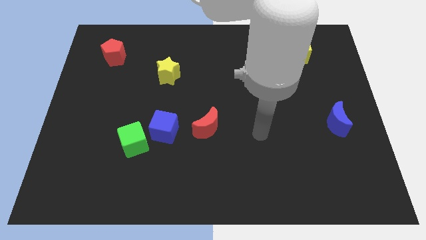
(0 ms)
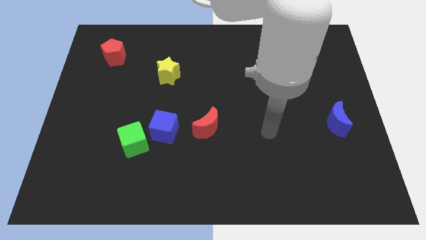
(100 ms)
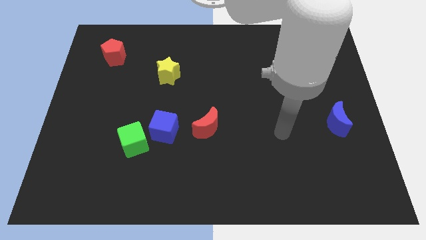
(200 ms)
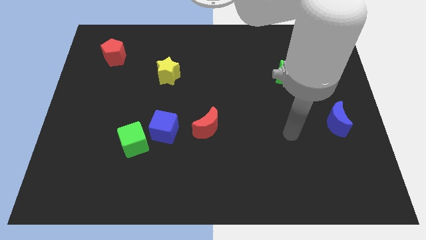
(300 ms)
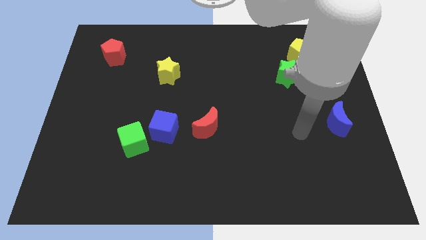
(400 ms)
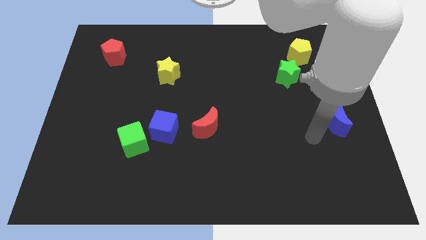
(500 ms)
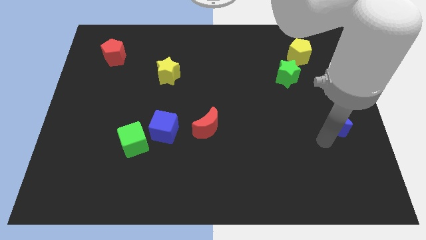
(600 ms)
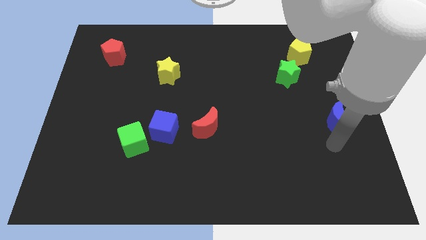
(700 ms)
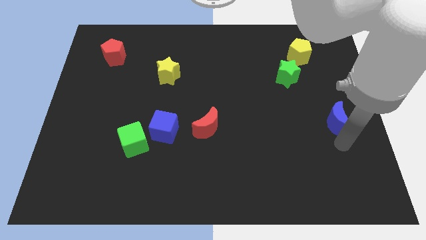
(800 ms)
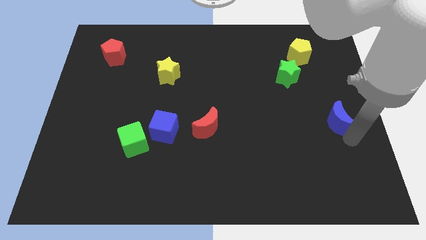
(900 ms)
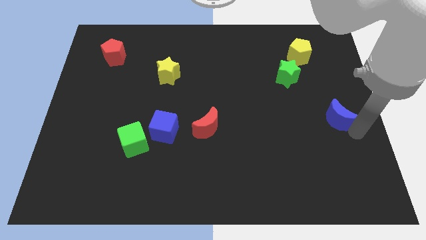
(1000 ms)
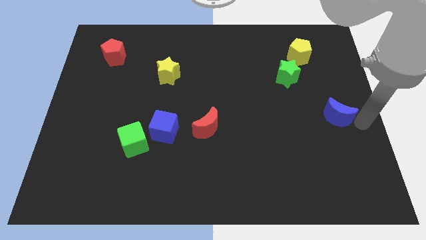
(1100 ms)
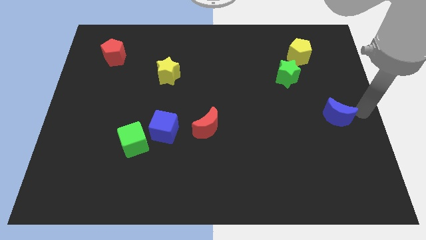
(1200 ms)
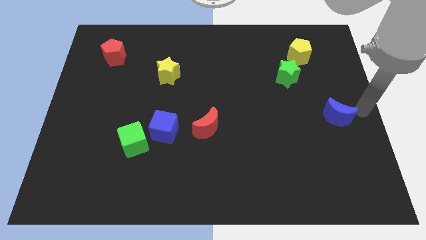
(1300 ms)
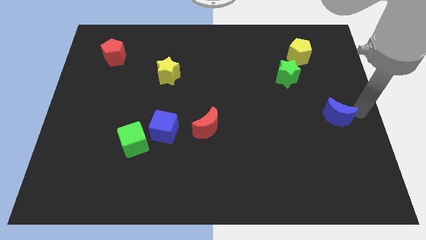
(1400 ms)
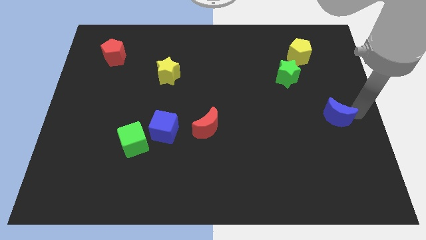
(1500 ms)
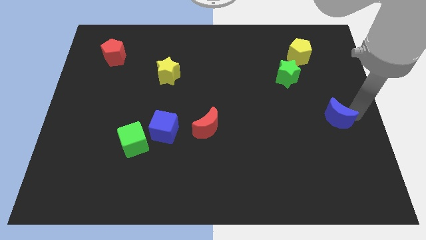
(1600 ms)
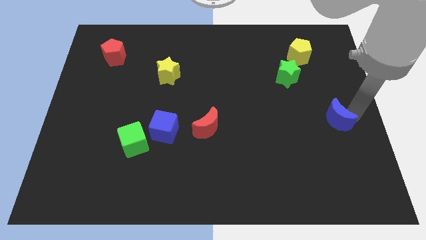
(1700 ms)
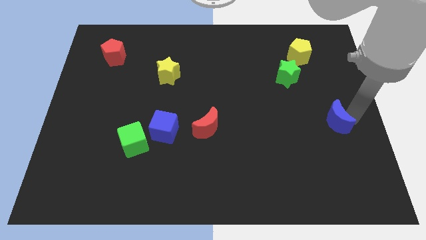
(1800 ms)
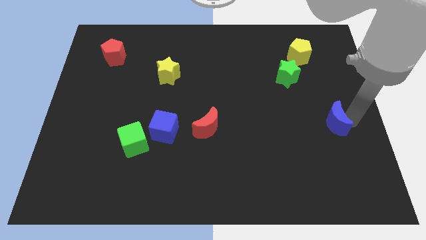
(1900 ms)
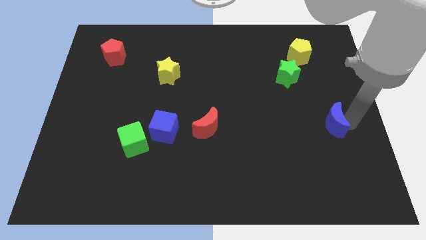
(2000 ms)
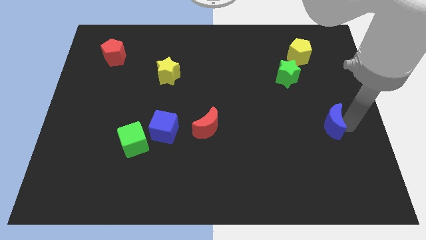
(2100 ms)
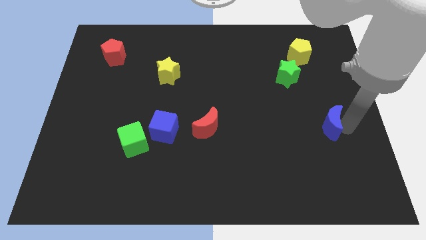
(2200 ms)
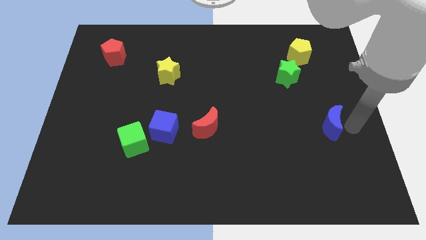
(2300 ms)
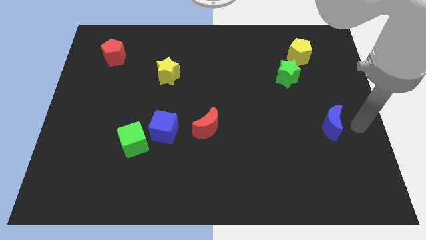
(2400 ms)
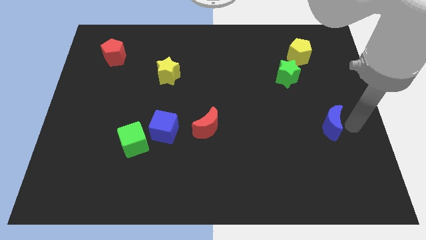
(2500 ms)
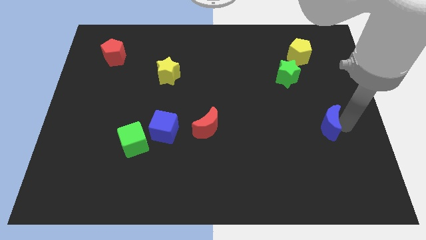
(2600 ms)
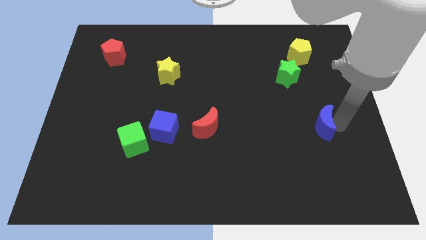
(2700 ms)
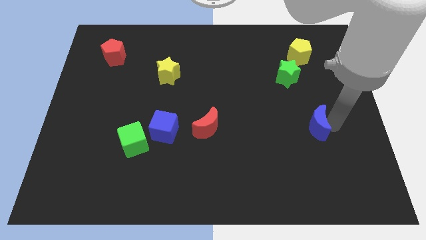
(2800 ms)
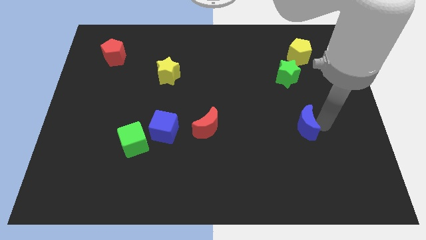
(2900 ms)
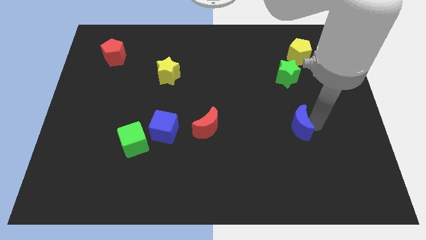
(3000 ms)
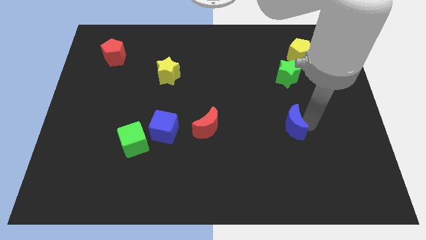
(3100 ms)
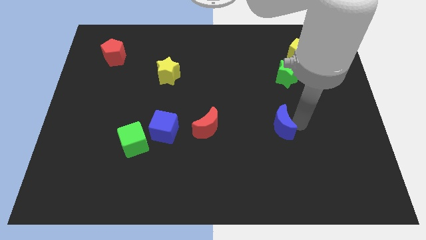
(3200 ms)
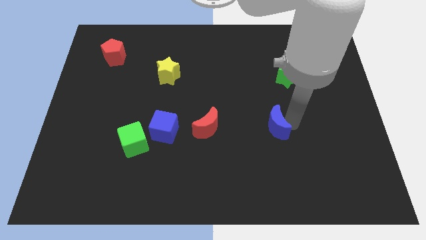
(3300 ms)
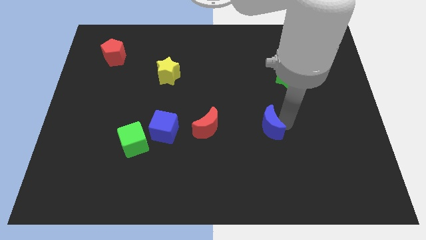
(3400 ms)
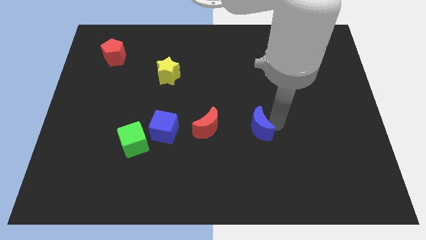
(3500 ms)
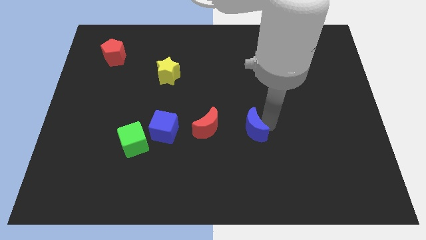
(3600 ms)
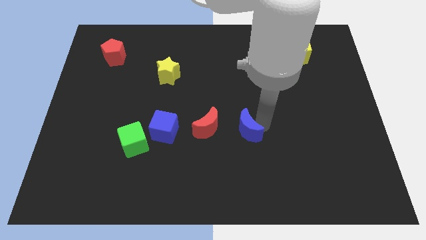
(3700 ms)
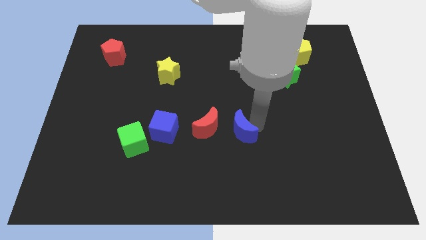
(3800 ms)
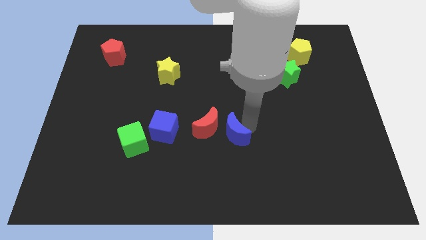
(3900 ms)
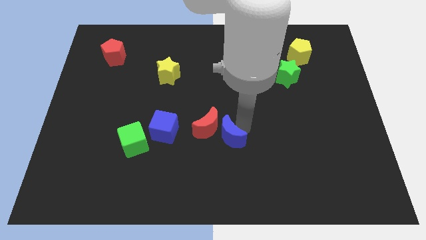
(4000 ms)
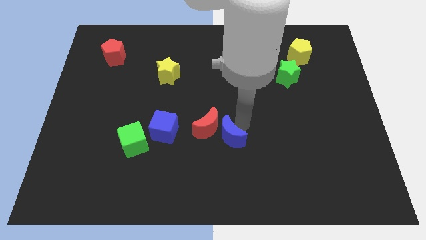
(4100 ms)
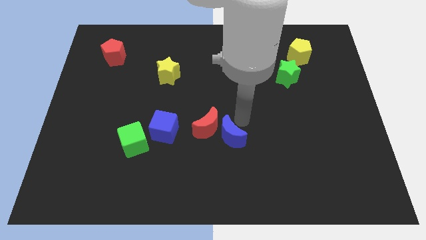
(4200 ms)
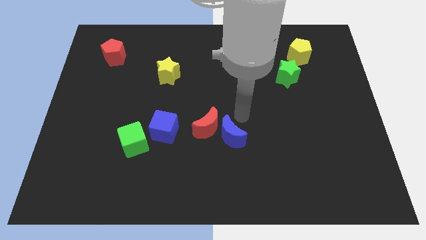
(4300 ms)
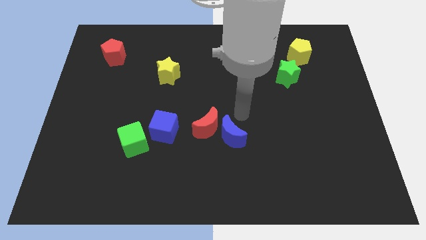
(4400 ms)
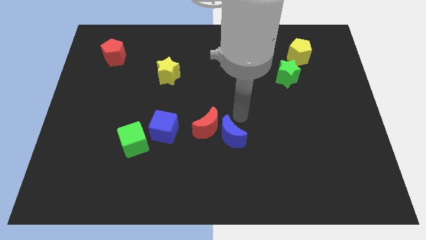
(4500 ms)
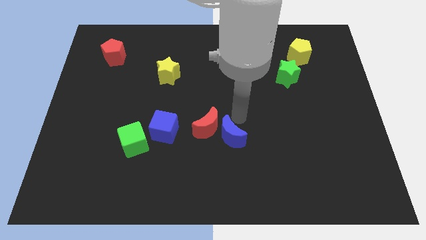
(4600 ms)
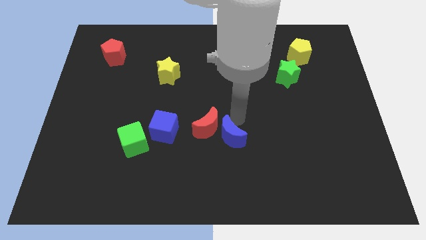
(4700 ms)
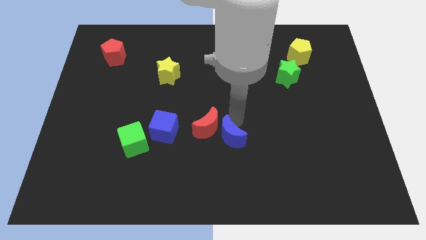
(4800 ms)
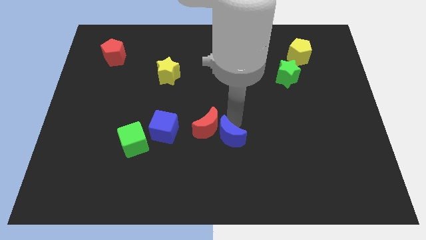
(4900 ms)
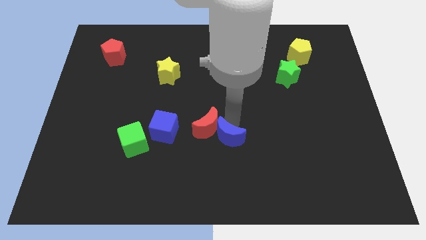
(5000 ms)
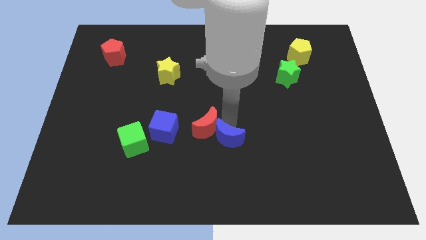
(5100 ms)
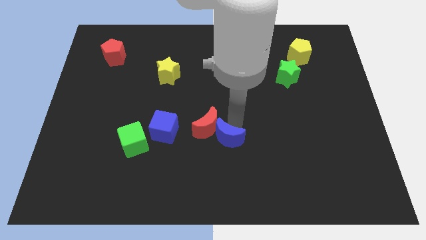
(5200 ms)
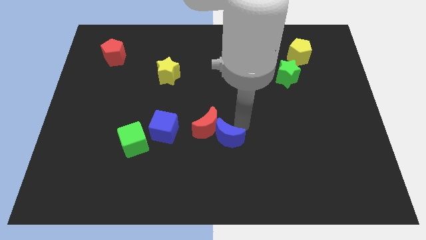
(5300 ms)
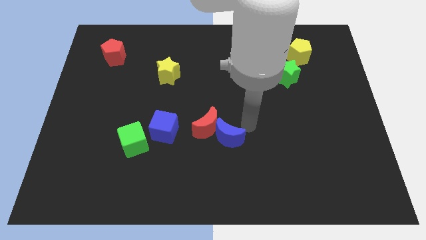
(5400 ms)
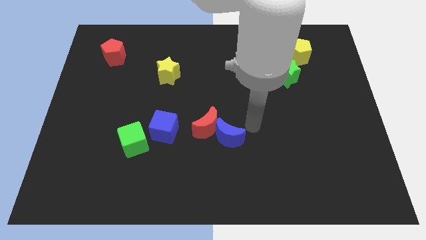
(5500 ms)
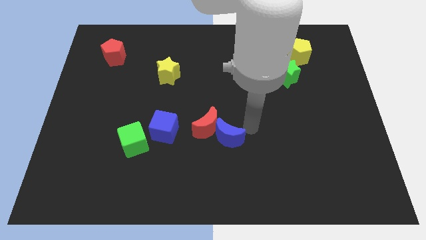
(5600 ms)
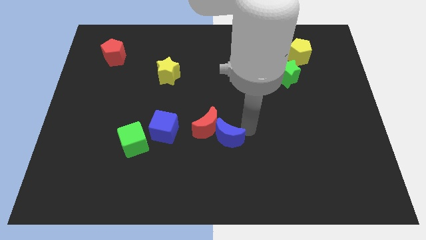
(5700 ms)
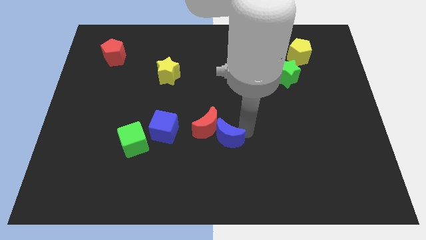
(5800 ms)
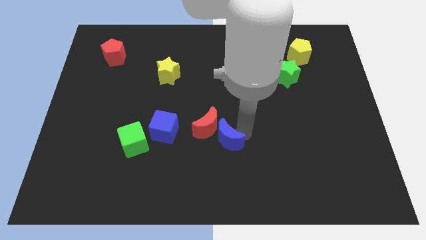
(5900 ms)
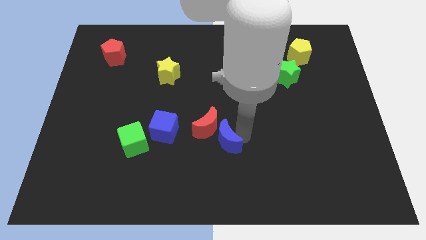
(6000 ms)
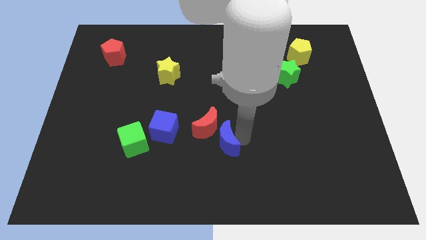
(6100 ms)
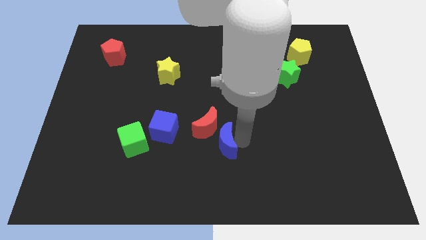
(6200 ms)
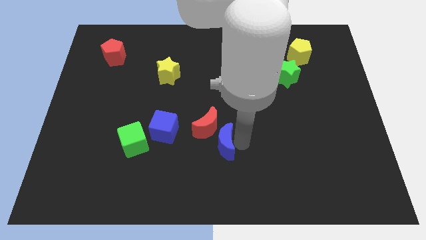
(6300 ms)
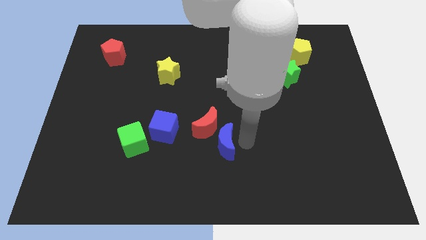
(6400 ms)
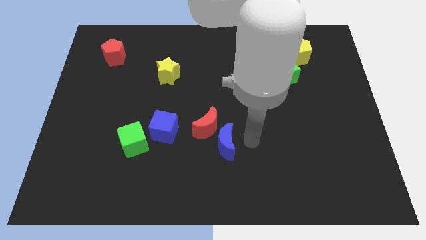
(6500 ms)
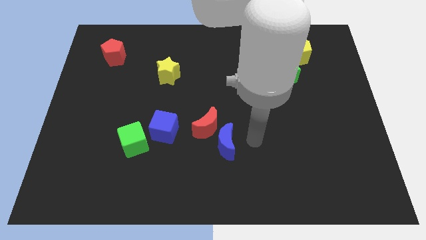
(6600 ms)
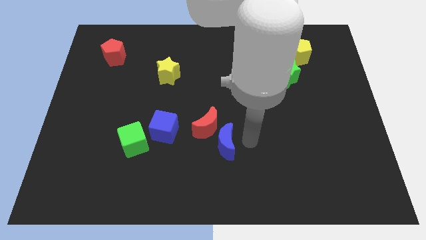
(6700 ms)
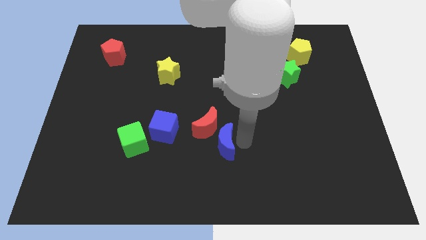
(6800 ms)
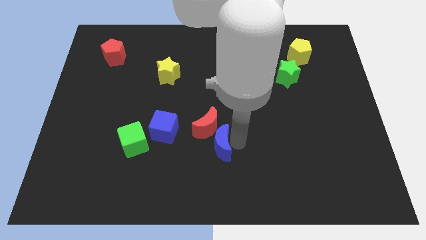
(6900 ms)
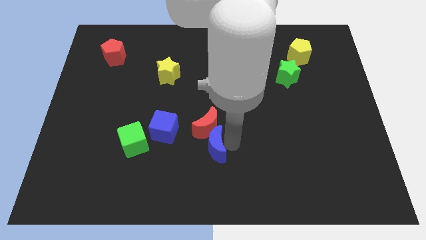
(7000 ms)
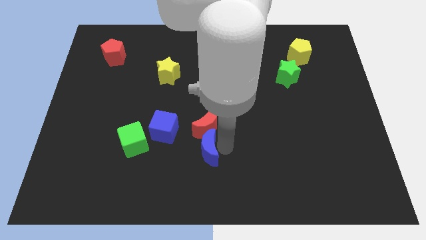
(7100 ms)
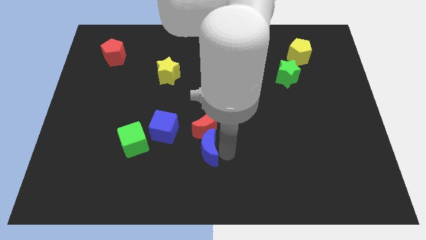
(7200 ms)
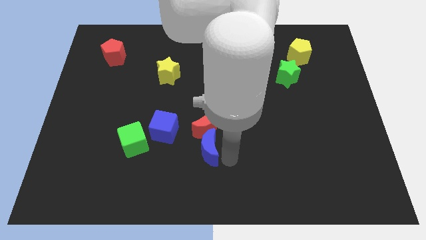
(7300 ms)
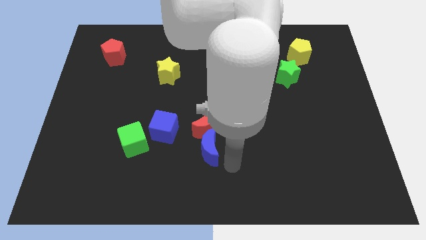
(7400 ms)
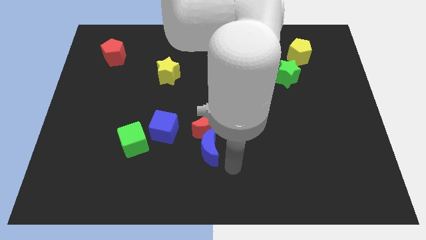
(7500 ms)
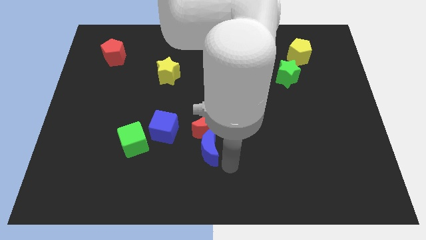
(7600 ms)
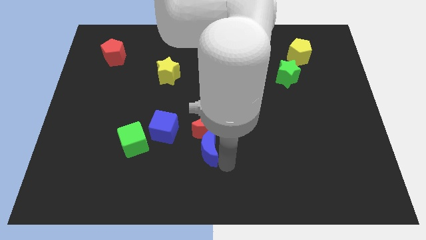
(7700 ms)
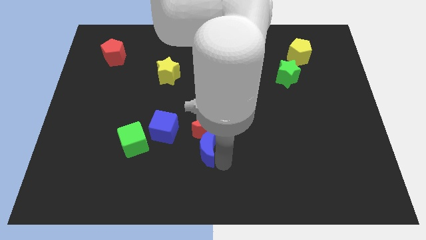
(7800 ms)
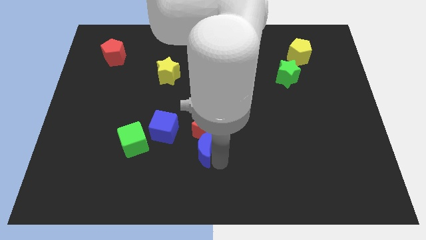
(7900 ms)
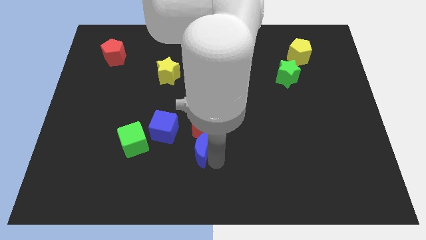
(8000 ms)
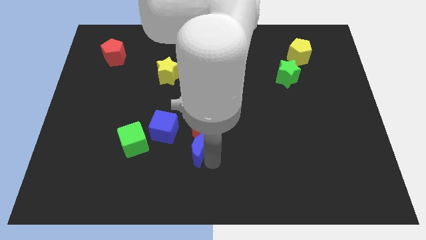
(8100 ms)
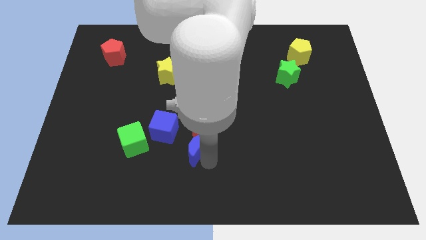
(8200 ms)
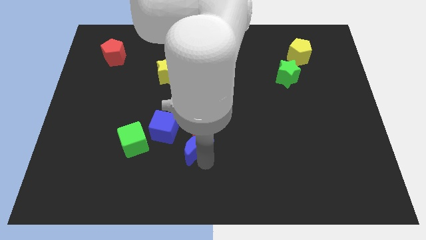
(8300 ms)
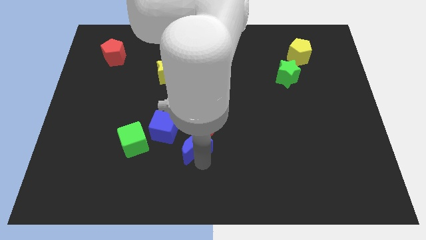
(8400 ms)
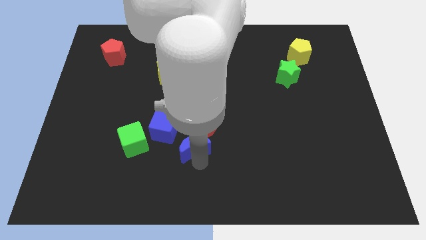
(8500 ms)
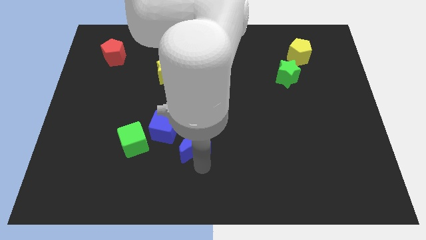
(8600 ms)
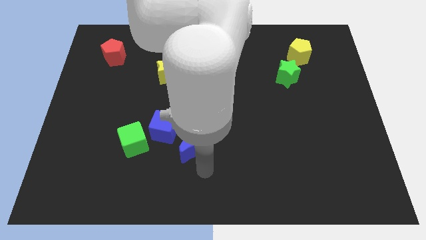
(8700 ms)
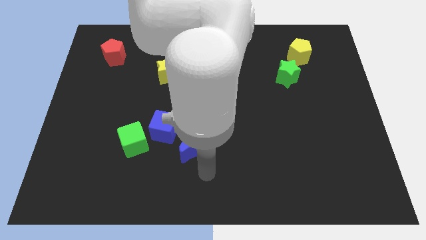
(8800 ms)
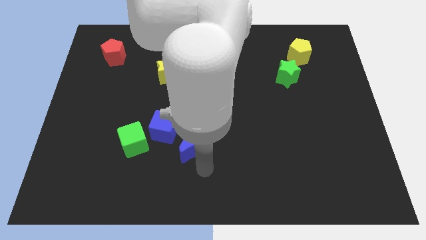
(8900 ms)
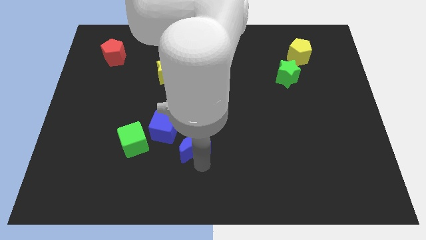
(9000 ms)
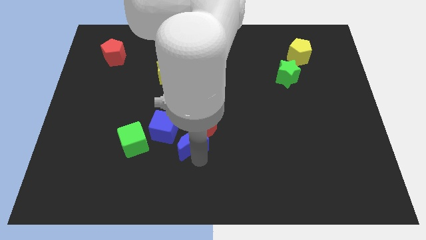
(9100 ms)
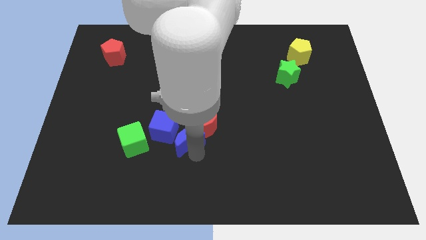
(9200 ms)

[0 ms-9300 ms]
slide the blue moon close to the blue cube
